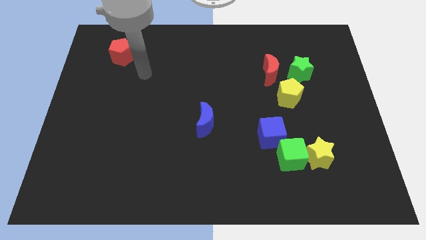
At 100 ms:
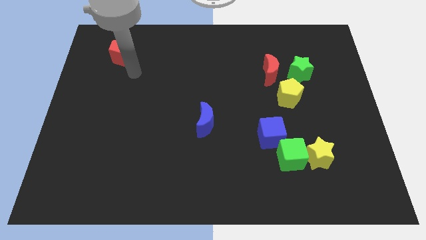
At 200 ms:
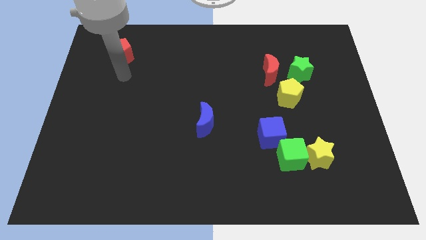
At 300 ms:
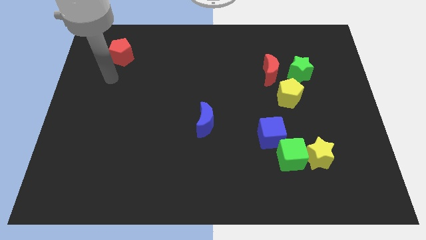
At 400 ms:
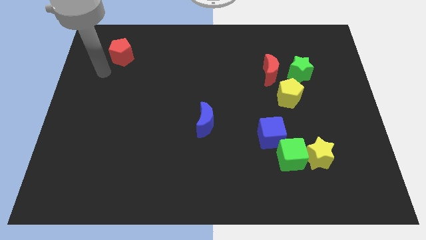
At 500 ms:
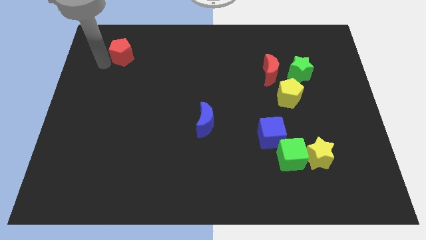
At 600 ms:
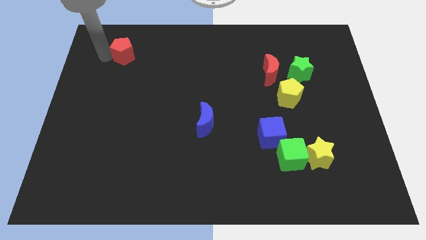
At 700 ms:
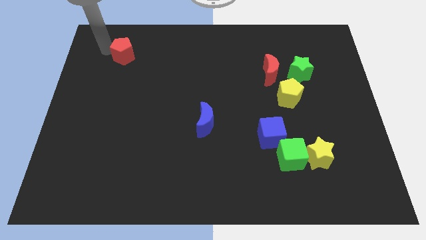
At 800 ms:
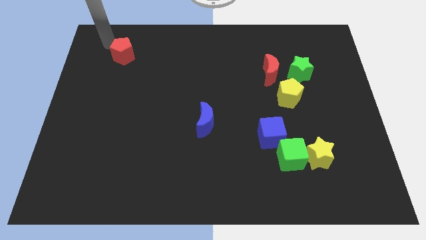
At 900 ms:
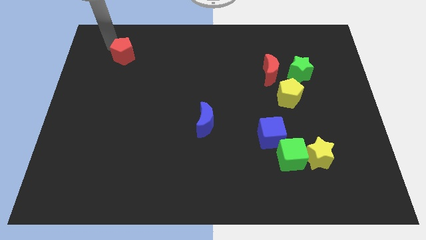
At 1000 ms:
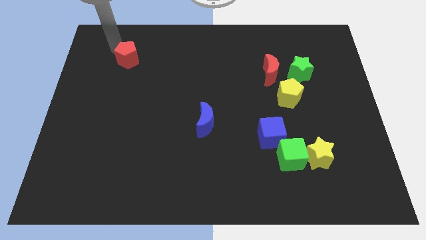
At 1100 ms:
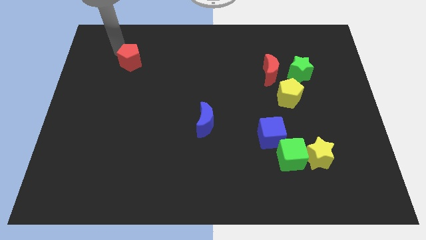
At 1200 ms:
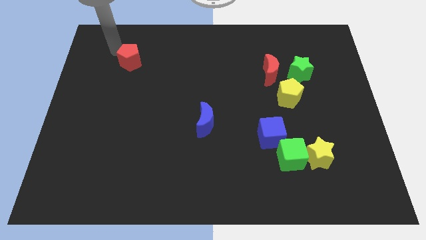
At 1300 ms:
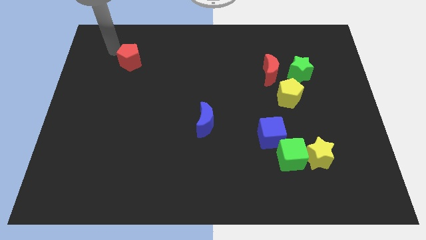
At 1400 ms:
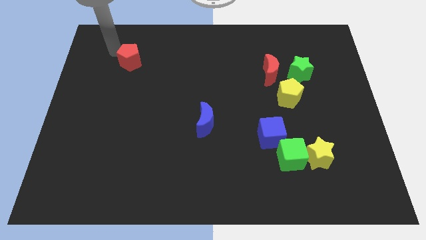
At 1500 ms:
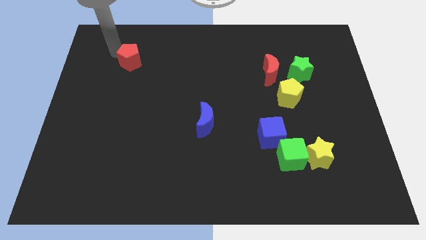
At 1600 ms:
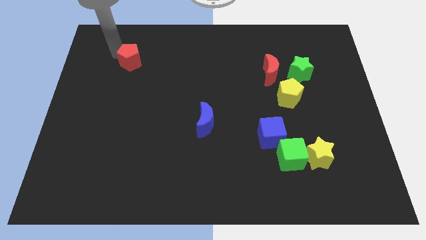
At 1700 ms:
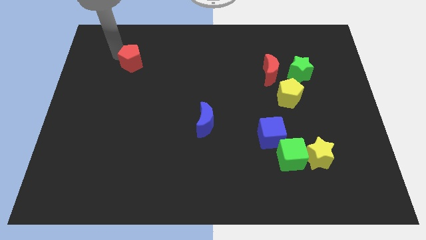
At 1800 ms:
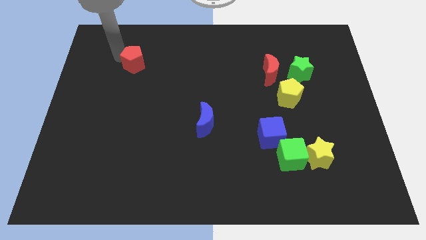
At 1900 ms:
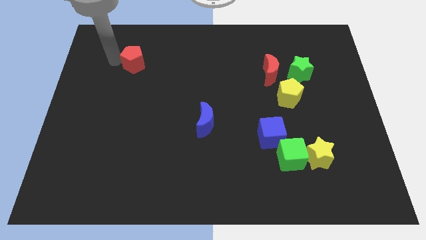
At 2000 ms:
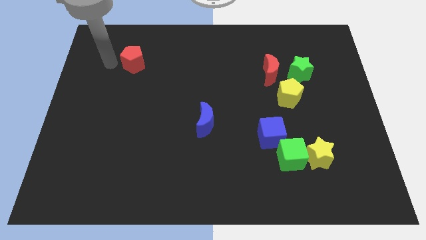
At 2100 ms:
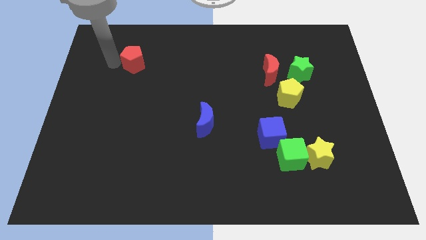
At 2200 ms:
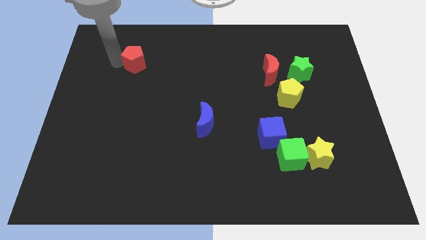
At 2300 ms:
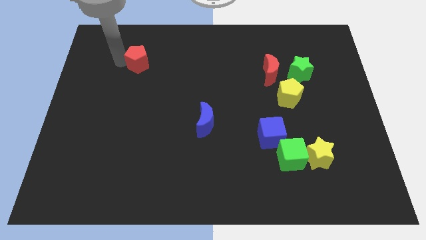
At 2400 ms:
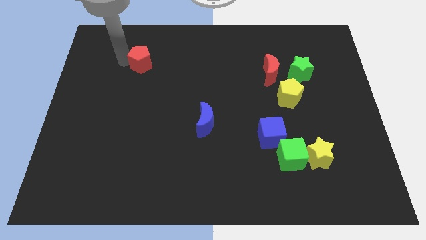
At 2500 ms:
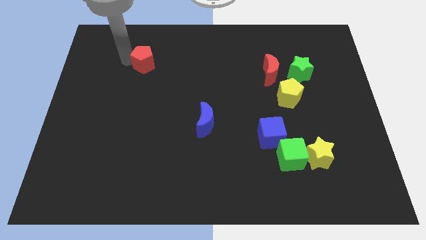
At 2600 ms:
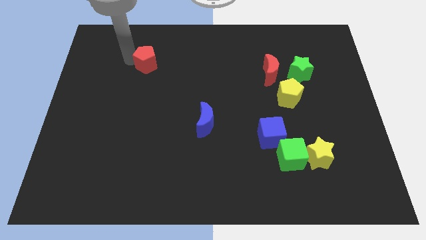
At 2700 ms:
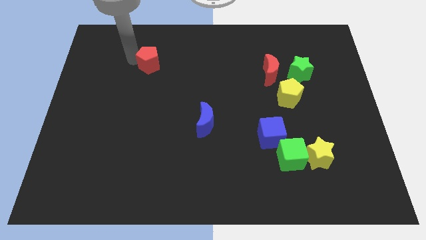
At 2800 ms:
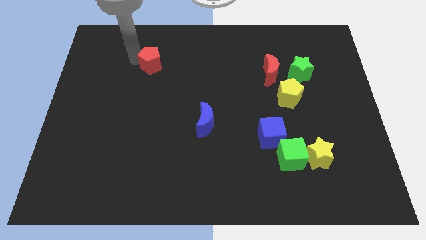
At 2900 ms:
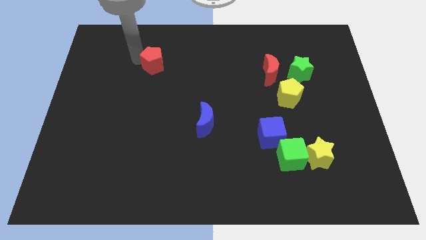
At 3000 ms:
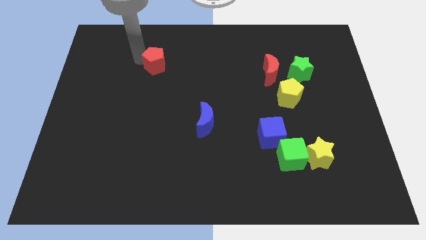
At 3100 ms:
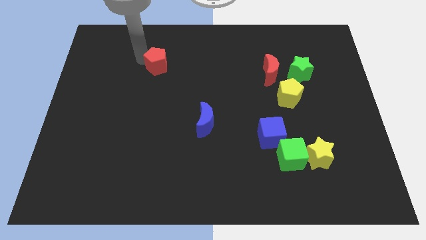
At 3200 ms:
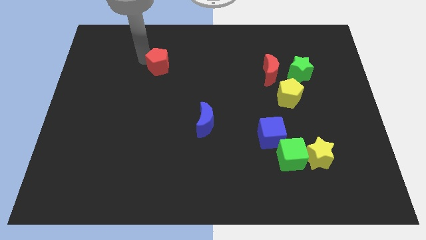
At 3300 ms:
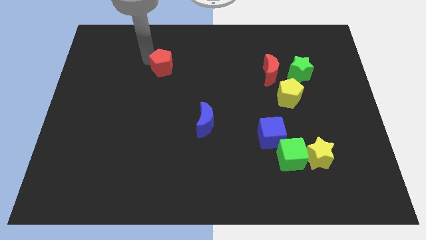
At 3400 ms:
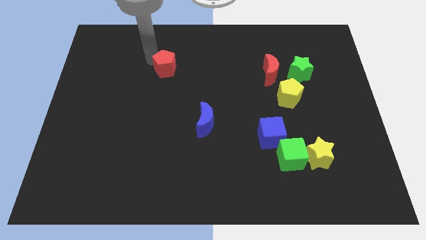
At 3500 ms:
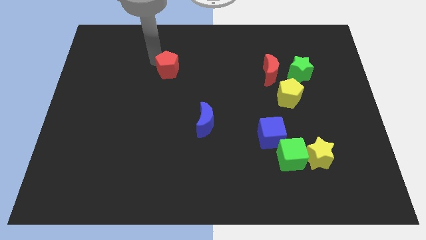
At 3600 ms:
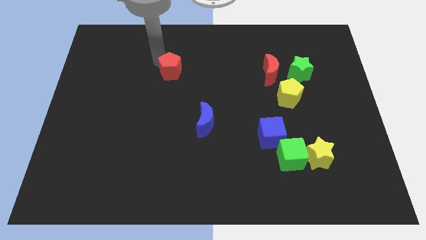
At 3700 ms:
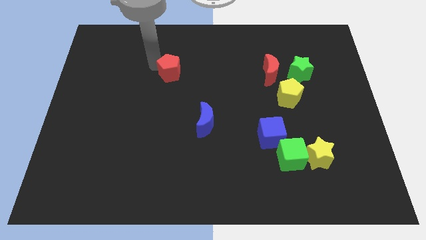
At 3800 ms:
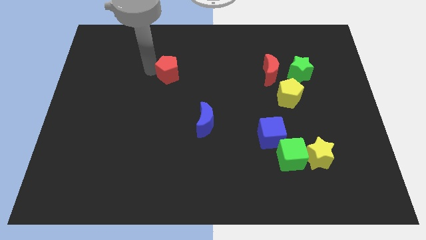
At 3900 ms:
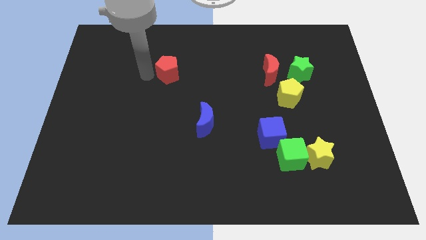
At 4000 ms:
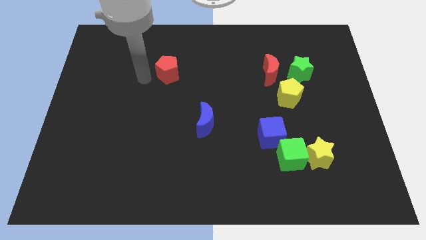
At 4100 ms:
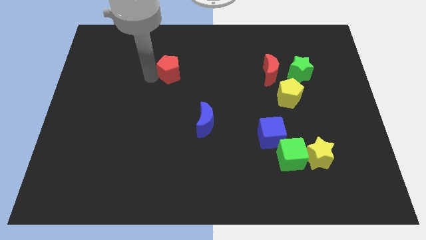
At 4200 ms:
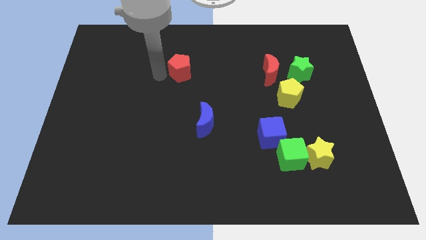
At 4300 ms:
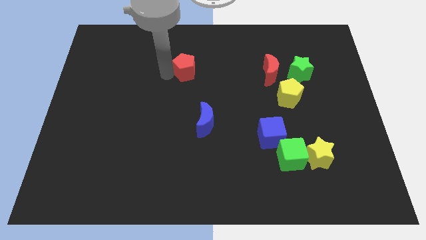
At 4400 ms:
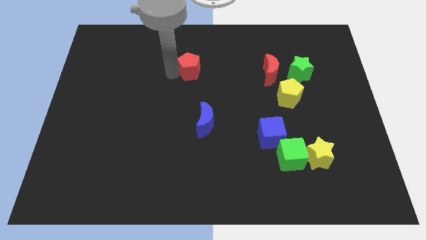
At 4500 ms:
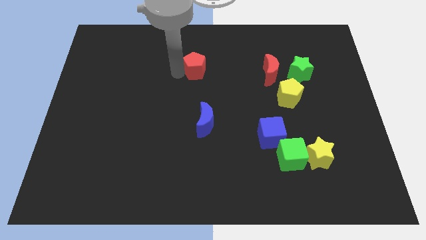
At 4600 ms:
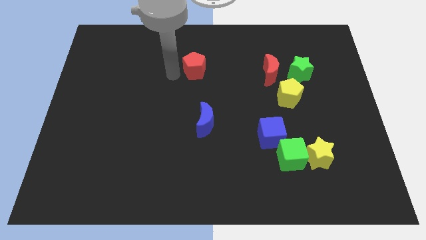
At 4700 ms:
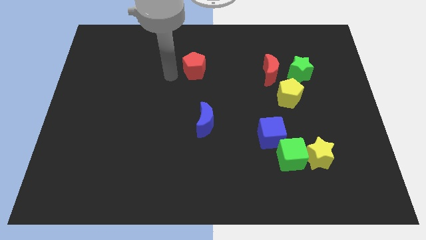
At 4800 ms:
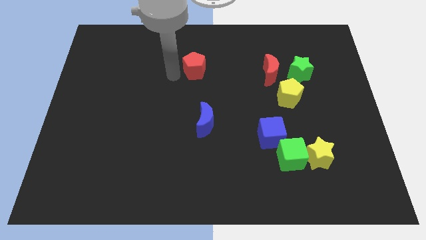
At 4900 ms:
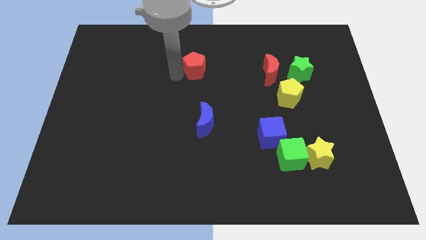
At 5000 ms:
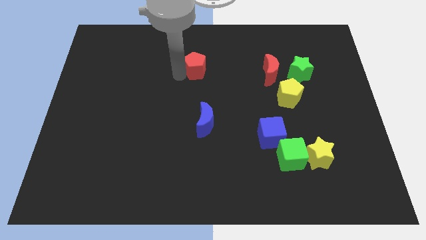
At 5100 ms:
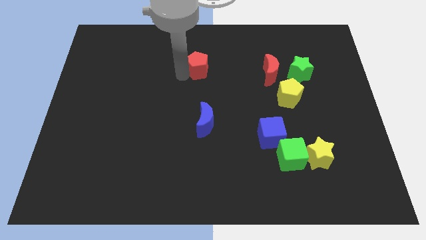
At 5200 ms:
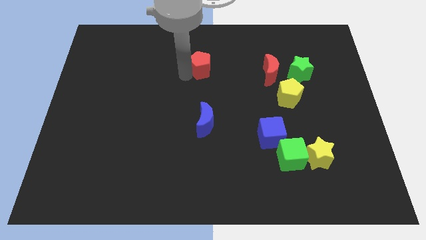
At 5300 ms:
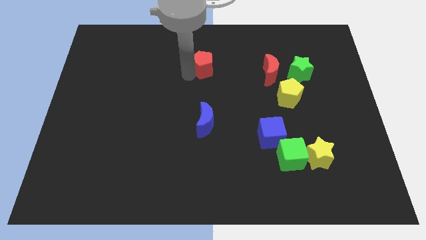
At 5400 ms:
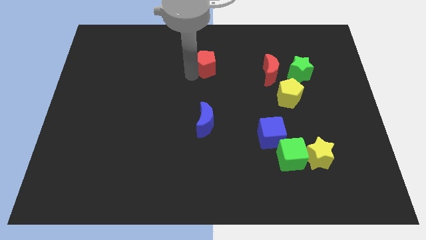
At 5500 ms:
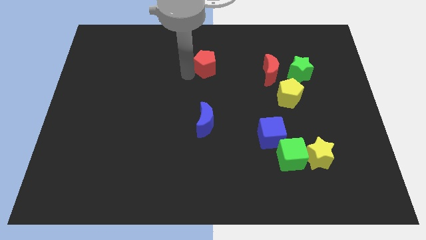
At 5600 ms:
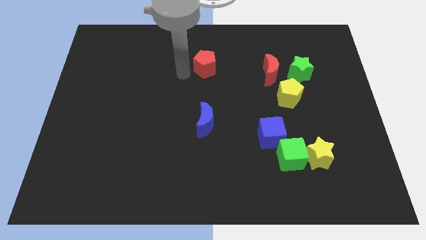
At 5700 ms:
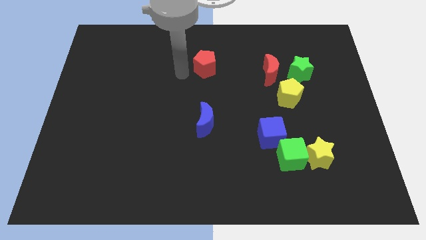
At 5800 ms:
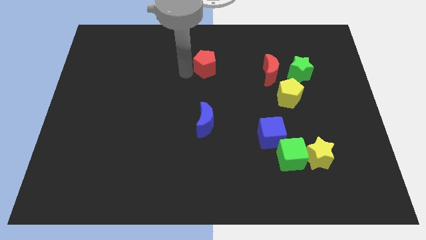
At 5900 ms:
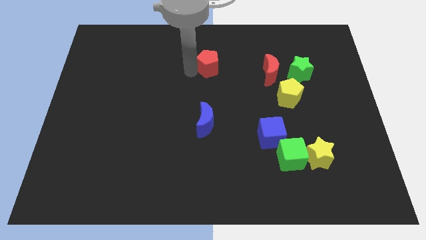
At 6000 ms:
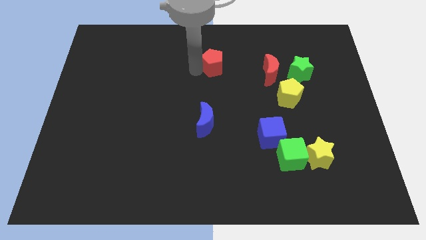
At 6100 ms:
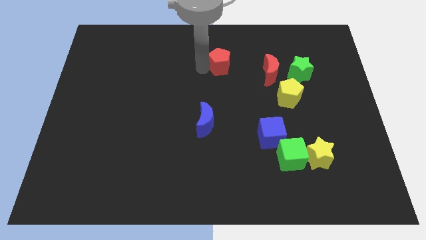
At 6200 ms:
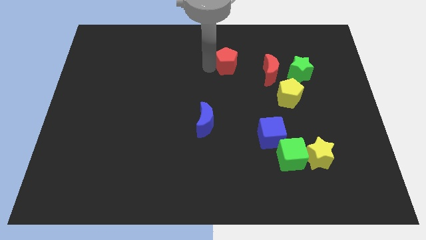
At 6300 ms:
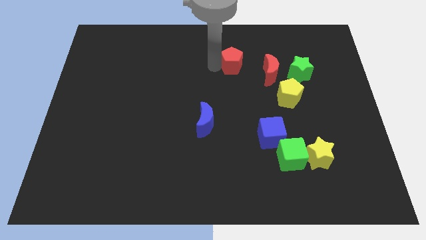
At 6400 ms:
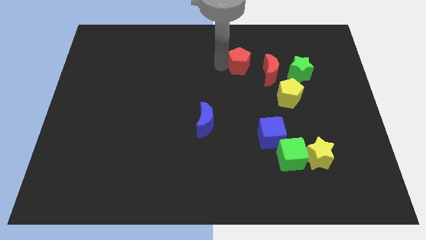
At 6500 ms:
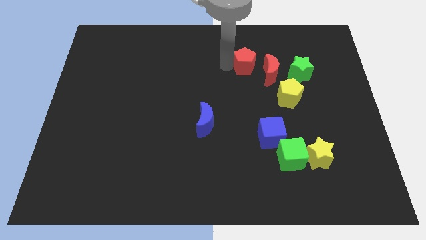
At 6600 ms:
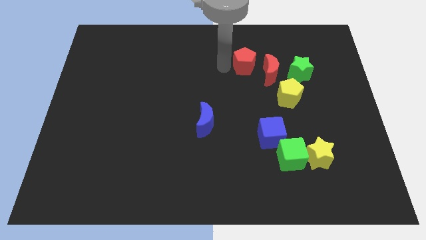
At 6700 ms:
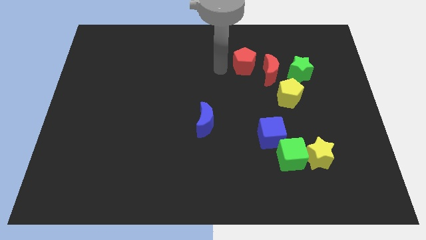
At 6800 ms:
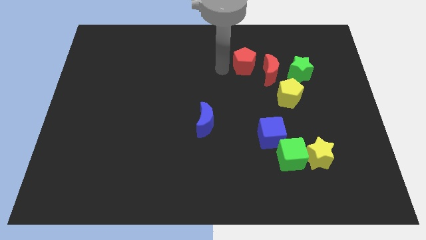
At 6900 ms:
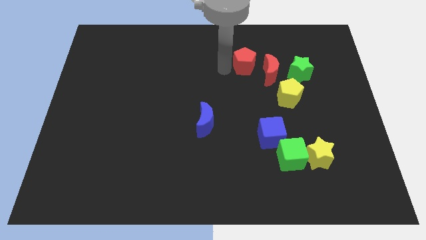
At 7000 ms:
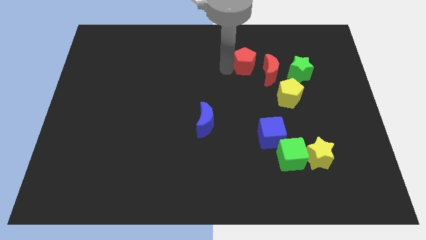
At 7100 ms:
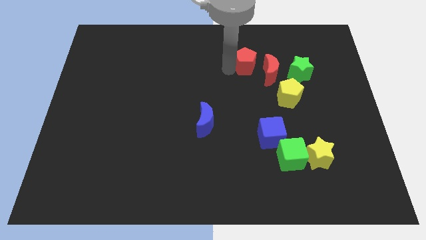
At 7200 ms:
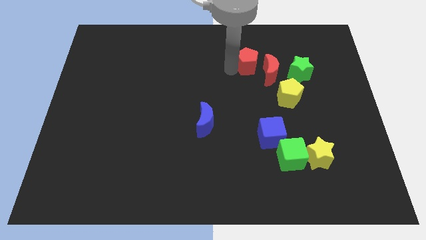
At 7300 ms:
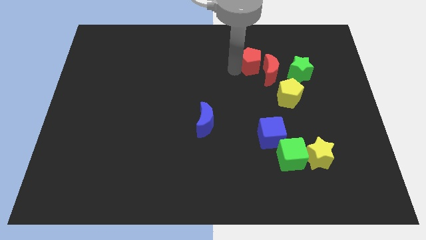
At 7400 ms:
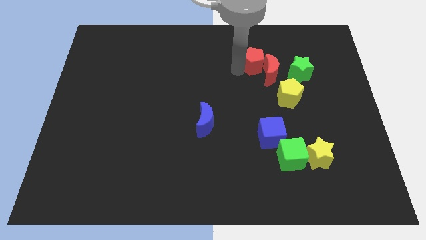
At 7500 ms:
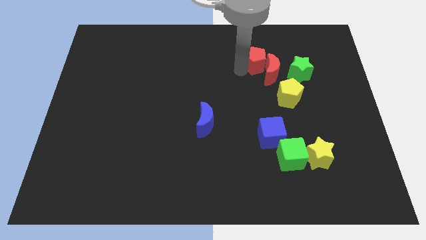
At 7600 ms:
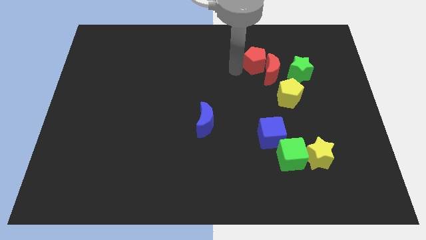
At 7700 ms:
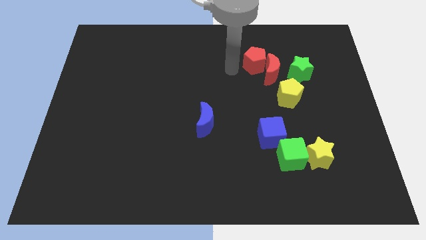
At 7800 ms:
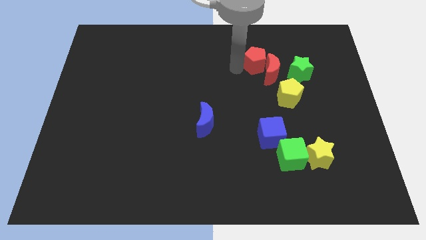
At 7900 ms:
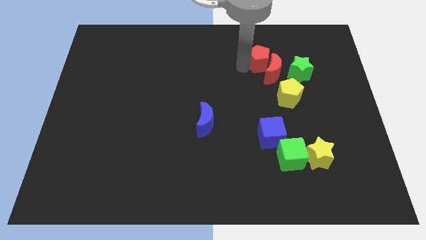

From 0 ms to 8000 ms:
put the red pentagon diagonally up and to the left of the green star
